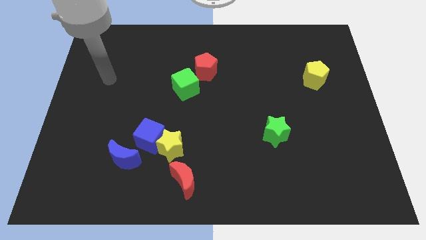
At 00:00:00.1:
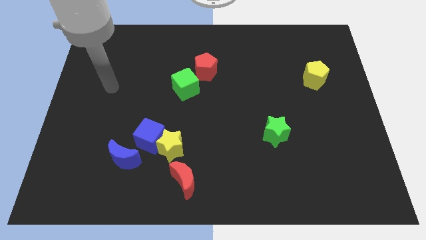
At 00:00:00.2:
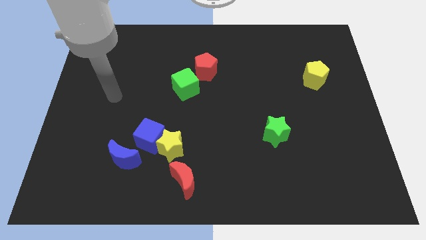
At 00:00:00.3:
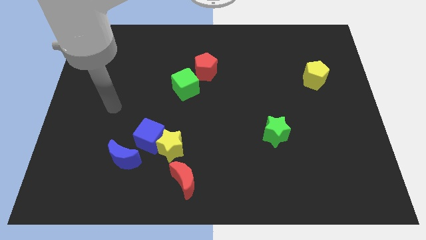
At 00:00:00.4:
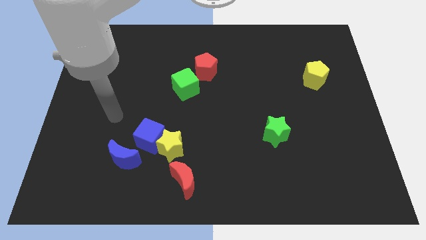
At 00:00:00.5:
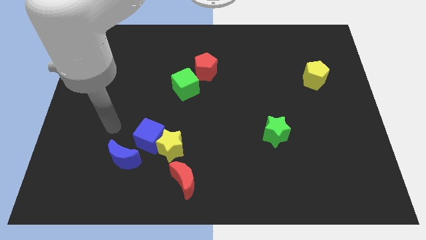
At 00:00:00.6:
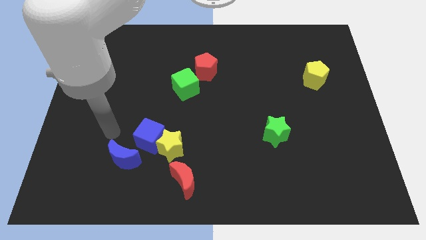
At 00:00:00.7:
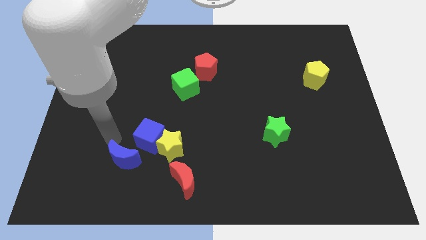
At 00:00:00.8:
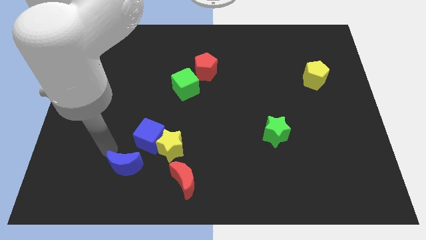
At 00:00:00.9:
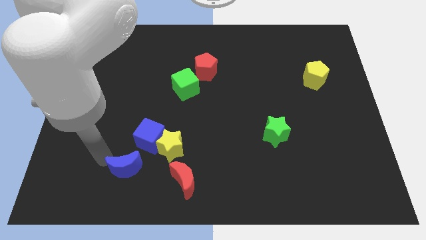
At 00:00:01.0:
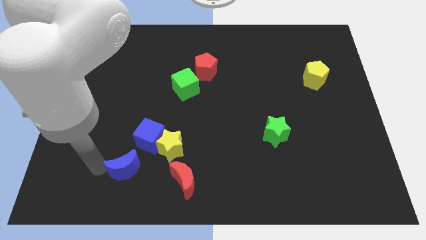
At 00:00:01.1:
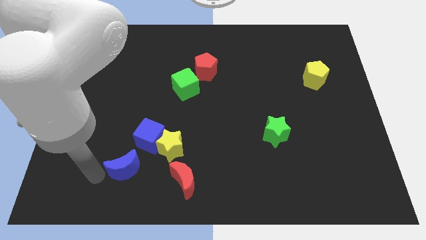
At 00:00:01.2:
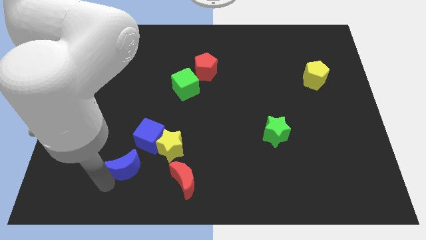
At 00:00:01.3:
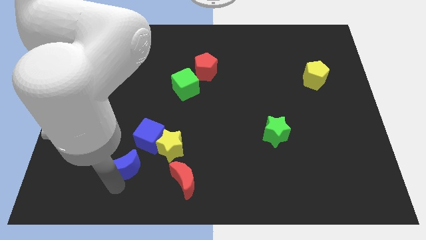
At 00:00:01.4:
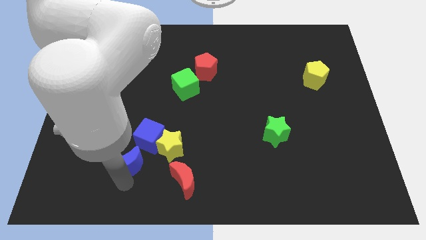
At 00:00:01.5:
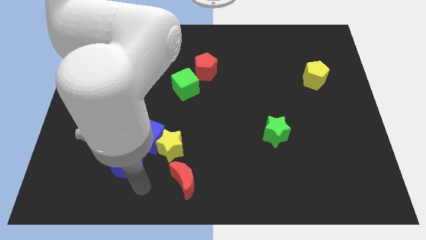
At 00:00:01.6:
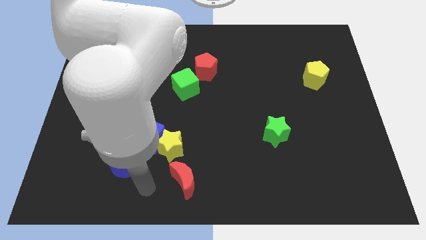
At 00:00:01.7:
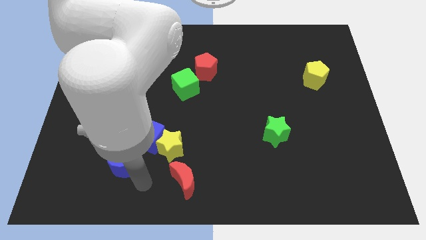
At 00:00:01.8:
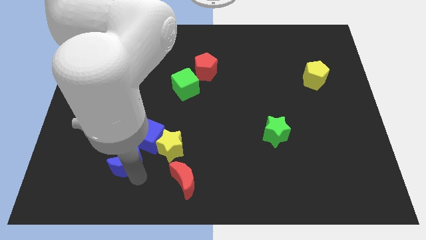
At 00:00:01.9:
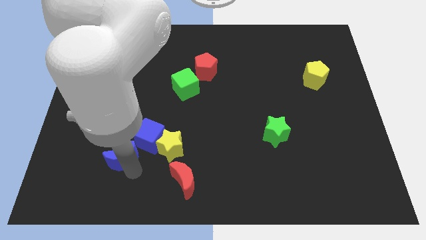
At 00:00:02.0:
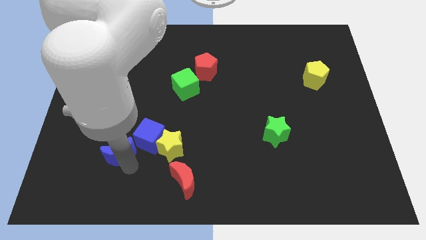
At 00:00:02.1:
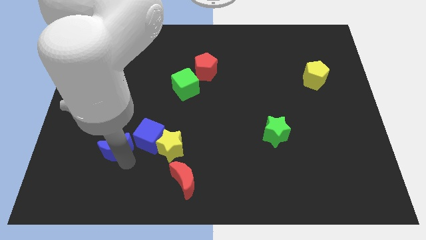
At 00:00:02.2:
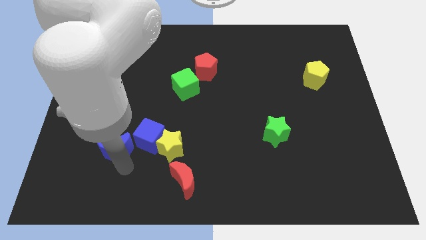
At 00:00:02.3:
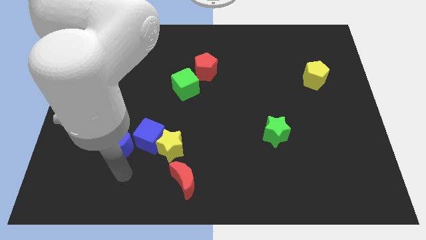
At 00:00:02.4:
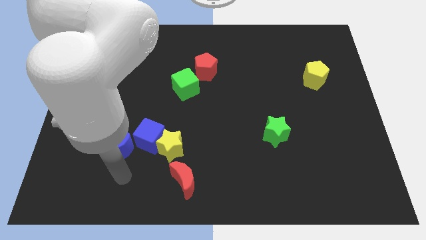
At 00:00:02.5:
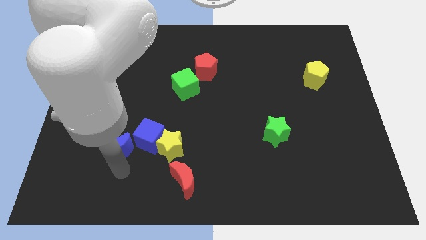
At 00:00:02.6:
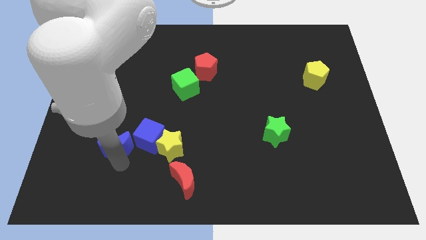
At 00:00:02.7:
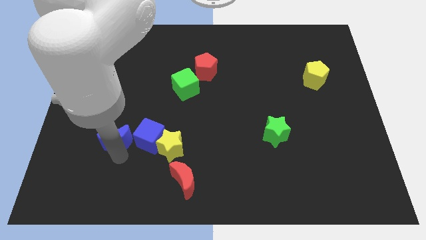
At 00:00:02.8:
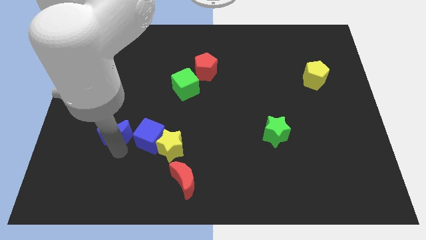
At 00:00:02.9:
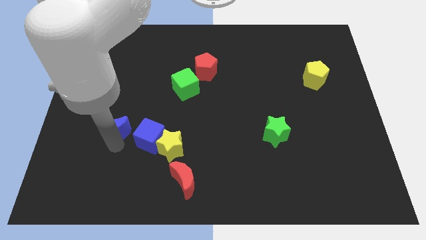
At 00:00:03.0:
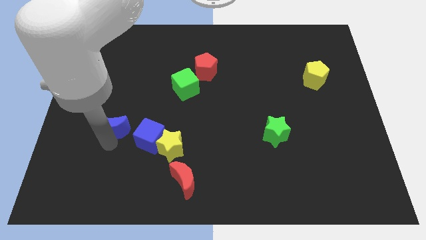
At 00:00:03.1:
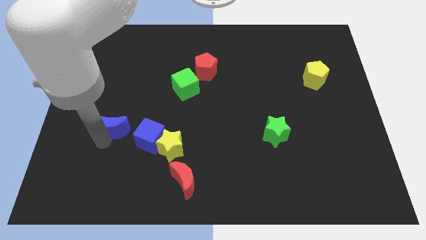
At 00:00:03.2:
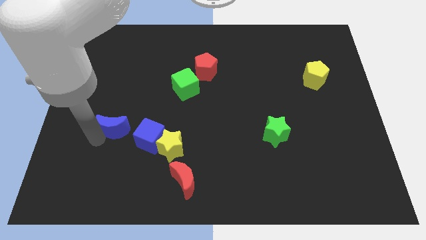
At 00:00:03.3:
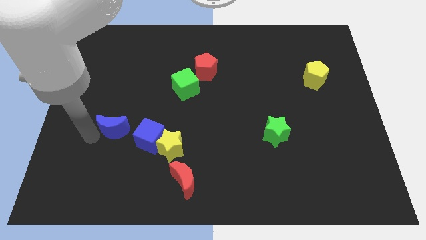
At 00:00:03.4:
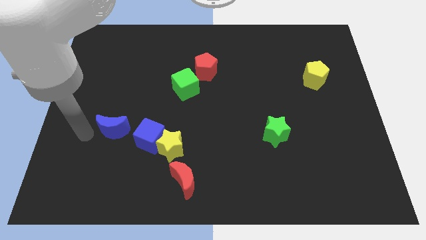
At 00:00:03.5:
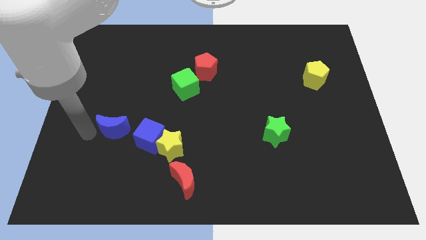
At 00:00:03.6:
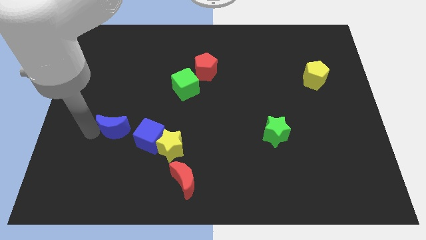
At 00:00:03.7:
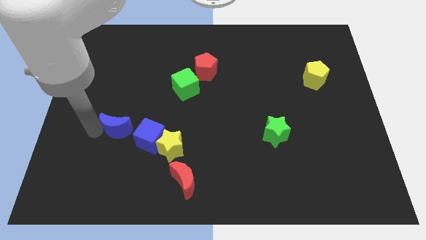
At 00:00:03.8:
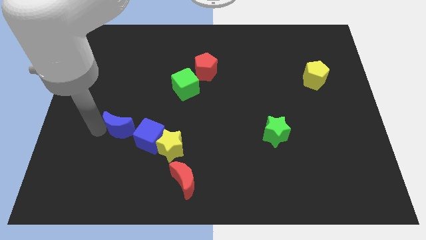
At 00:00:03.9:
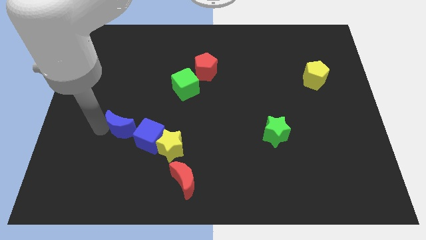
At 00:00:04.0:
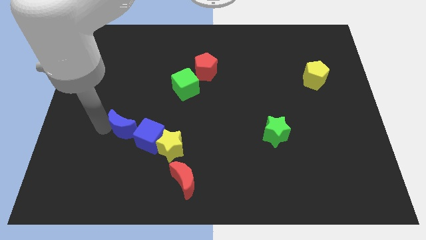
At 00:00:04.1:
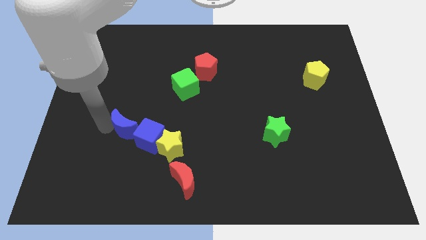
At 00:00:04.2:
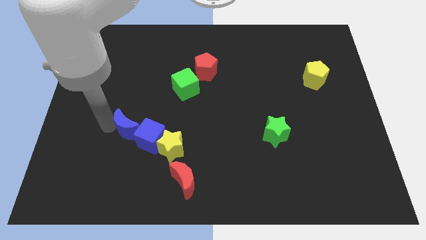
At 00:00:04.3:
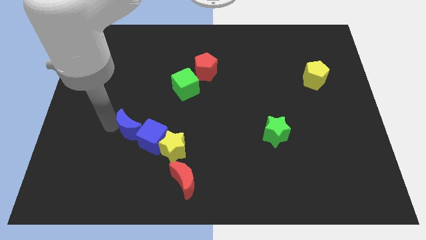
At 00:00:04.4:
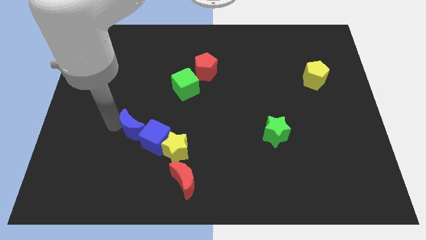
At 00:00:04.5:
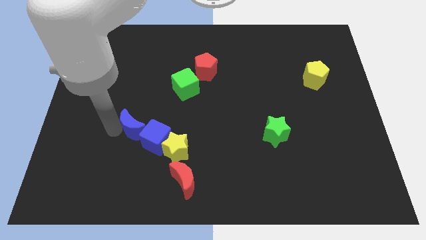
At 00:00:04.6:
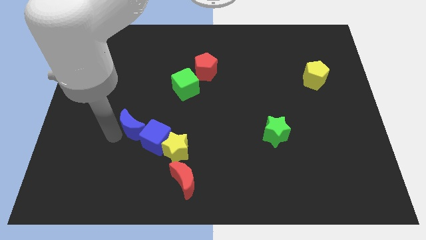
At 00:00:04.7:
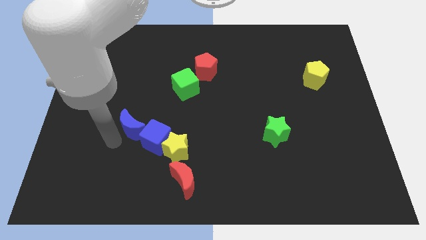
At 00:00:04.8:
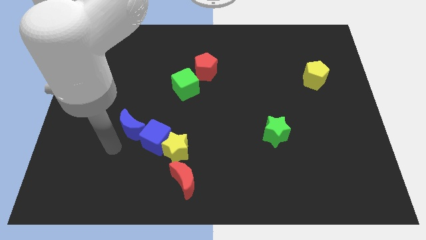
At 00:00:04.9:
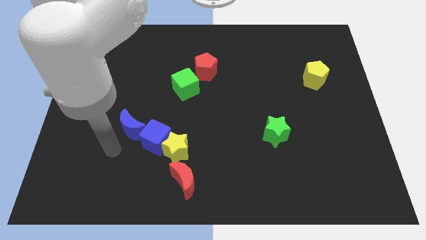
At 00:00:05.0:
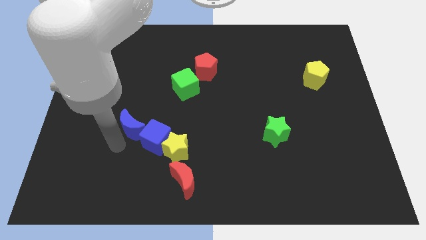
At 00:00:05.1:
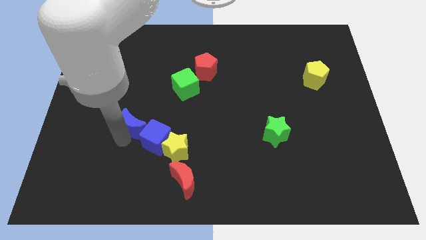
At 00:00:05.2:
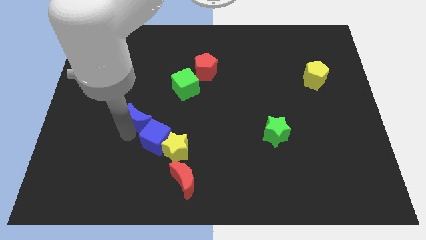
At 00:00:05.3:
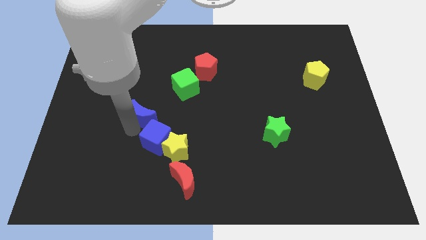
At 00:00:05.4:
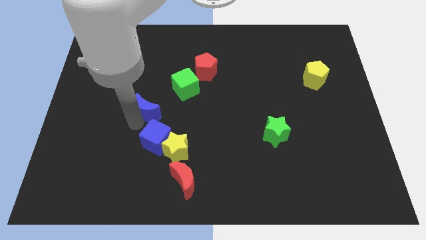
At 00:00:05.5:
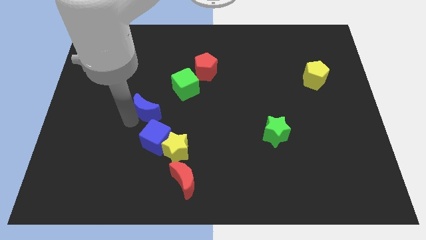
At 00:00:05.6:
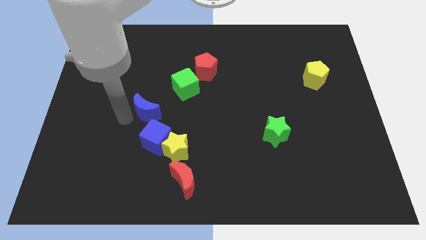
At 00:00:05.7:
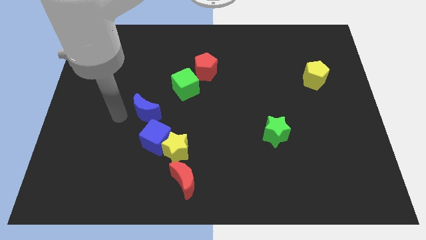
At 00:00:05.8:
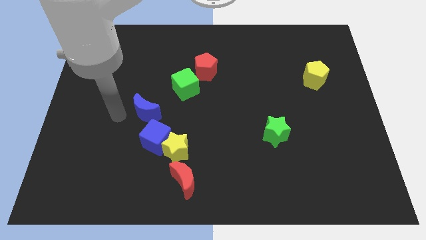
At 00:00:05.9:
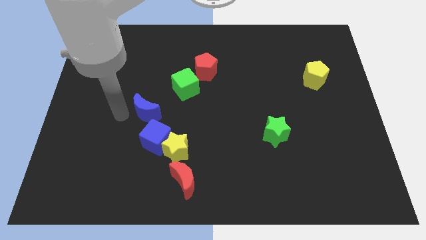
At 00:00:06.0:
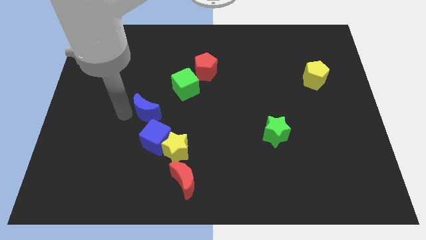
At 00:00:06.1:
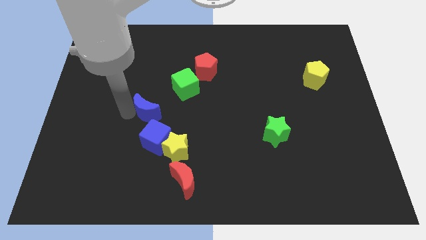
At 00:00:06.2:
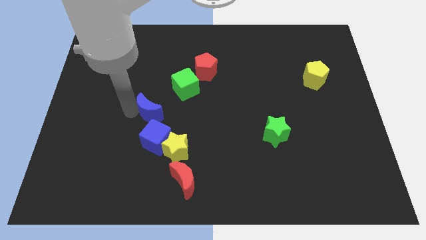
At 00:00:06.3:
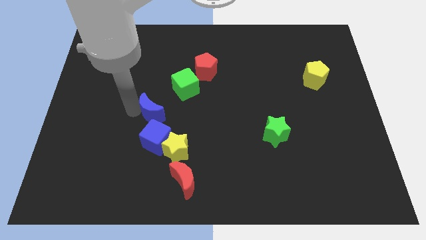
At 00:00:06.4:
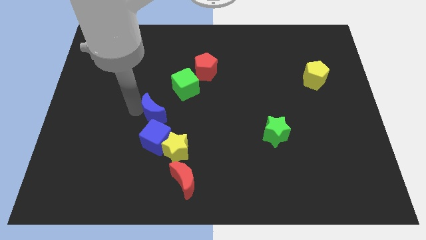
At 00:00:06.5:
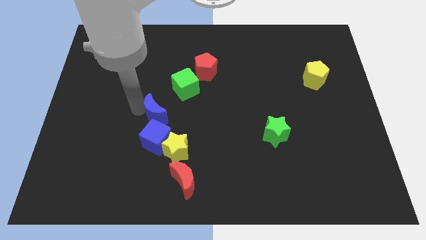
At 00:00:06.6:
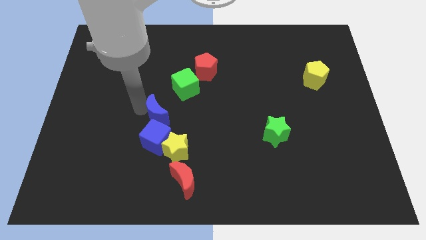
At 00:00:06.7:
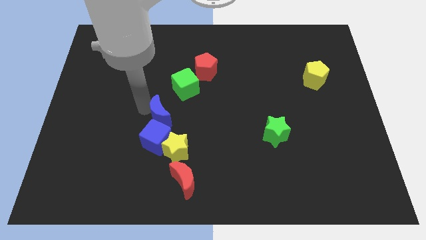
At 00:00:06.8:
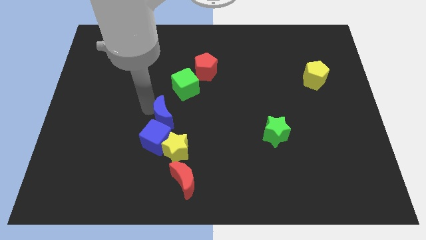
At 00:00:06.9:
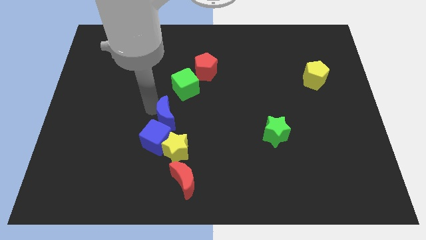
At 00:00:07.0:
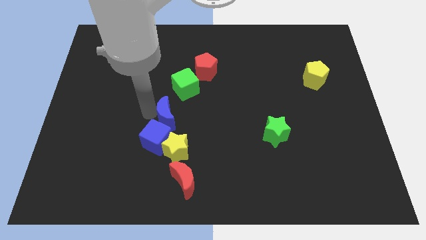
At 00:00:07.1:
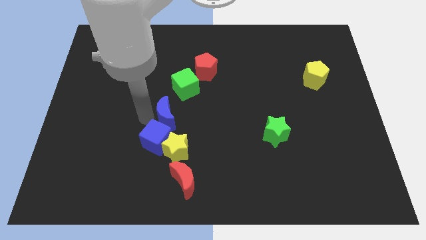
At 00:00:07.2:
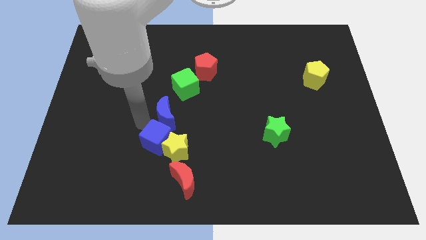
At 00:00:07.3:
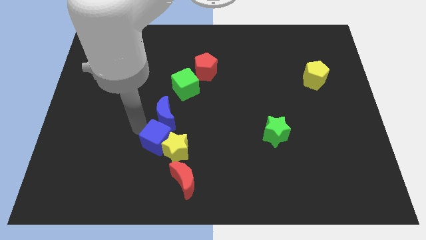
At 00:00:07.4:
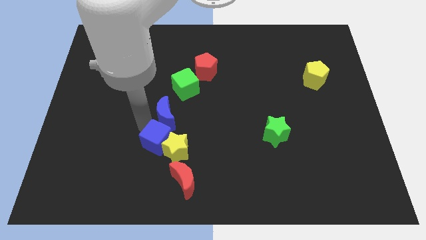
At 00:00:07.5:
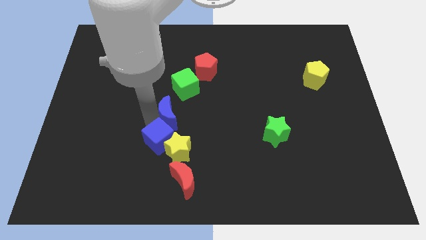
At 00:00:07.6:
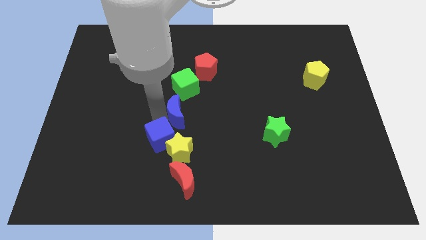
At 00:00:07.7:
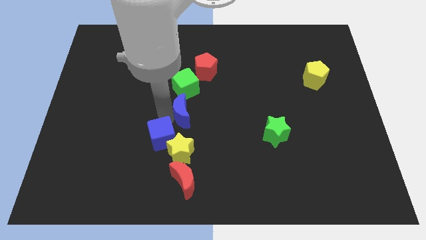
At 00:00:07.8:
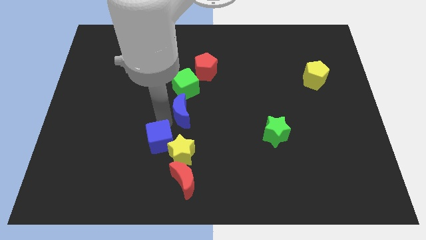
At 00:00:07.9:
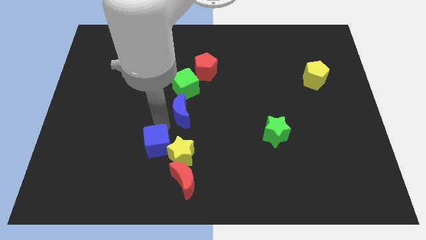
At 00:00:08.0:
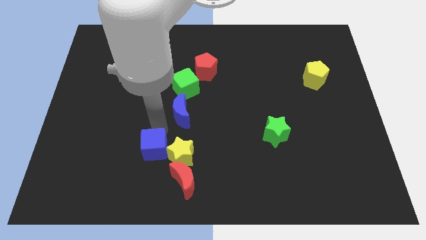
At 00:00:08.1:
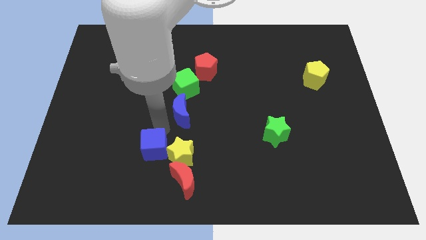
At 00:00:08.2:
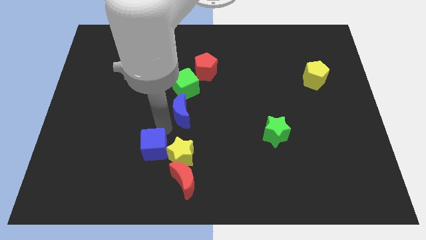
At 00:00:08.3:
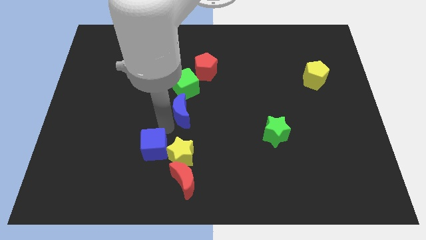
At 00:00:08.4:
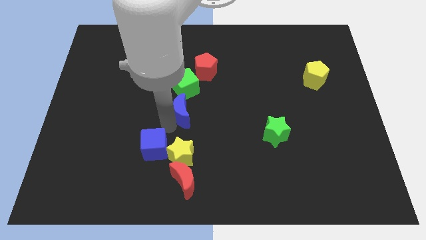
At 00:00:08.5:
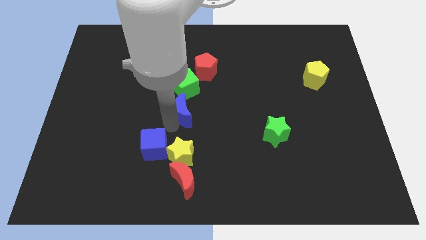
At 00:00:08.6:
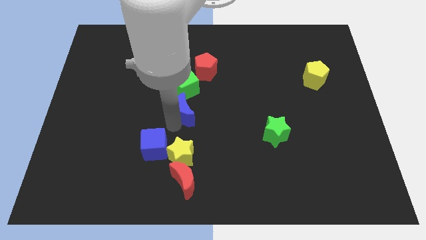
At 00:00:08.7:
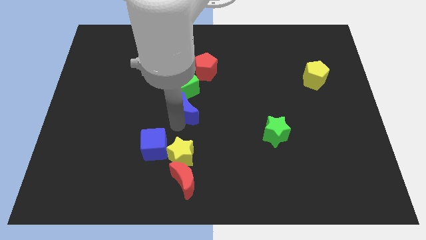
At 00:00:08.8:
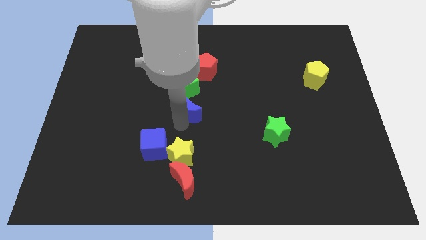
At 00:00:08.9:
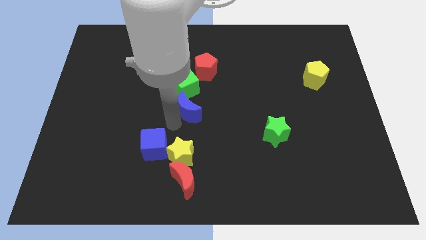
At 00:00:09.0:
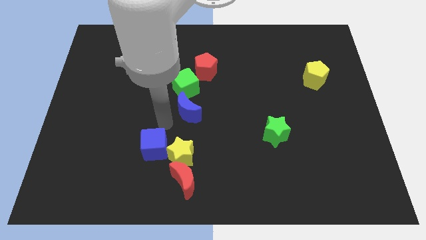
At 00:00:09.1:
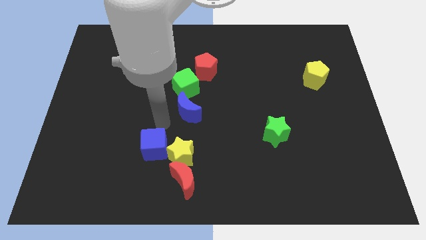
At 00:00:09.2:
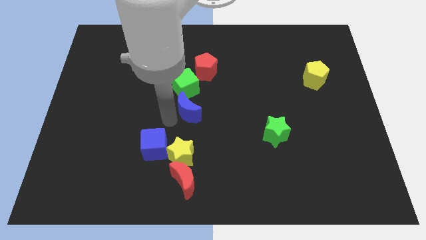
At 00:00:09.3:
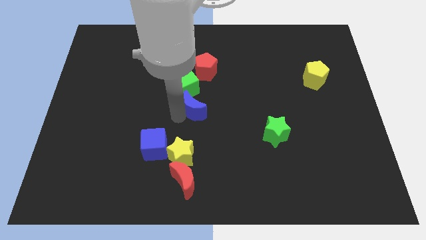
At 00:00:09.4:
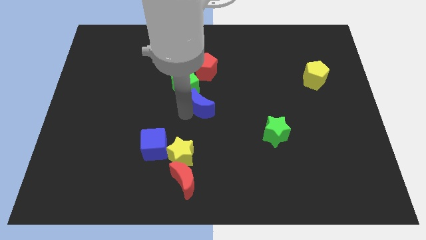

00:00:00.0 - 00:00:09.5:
push the blue moon up and right
